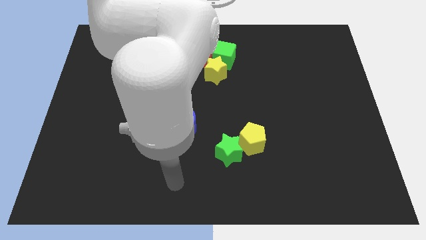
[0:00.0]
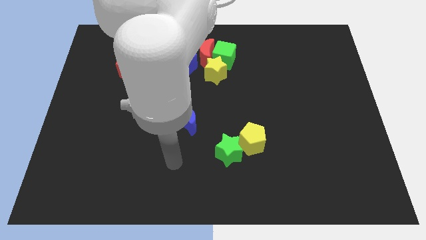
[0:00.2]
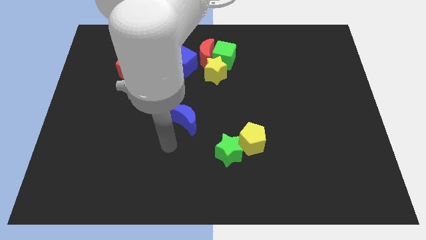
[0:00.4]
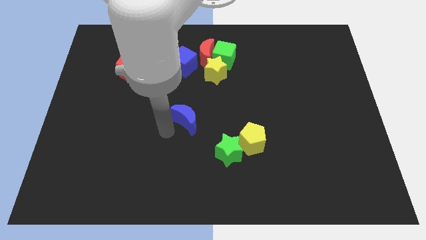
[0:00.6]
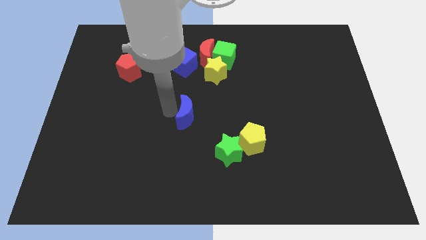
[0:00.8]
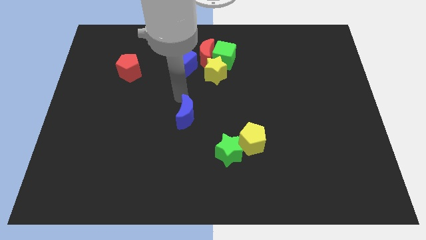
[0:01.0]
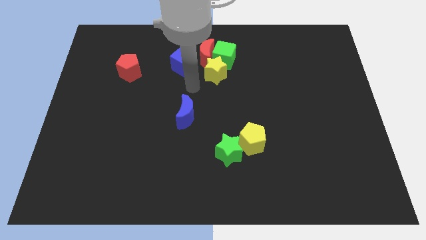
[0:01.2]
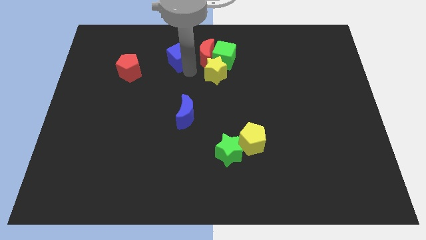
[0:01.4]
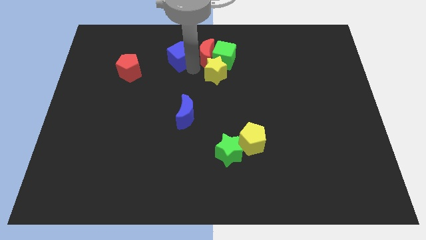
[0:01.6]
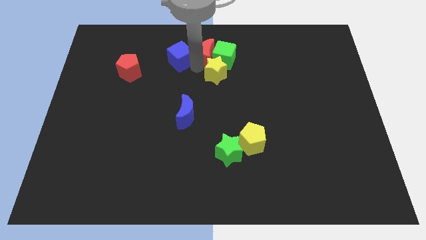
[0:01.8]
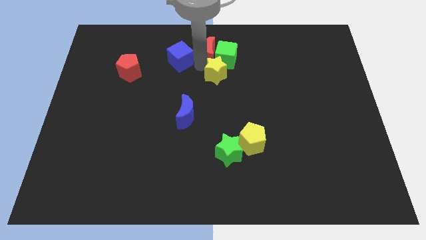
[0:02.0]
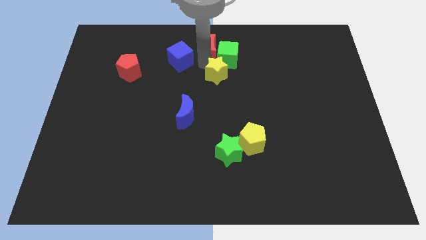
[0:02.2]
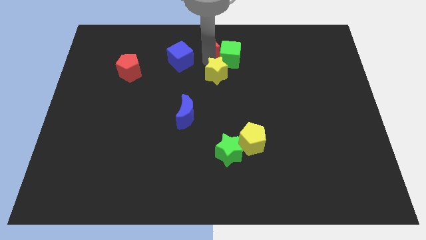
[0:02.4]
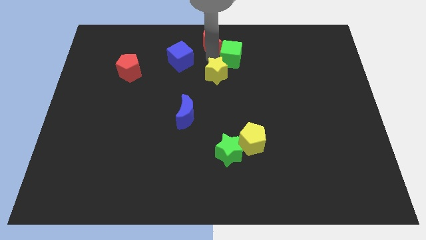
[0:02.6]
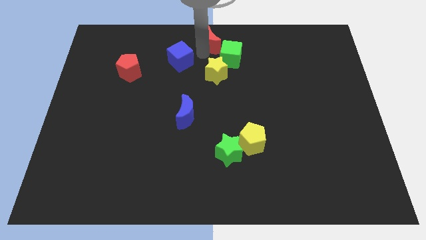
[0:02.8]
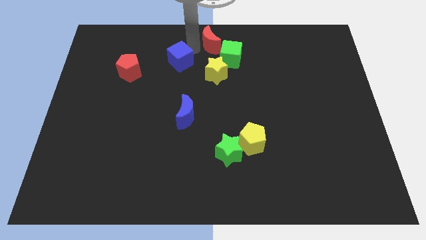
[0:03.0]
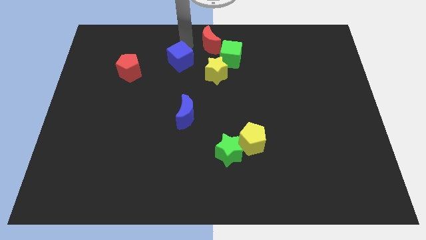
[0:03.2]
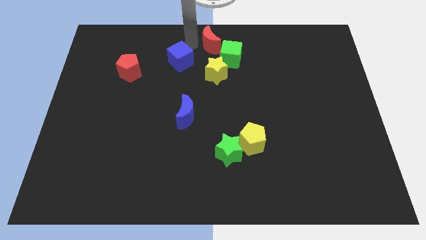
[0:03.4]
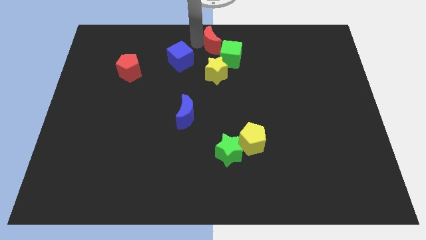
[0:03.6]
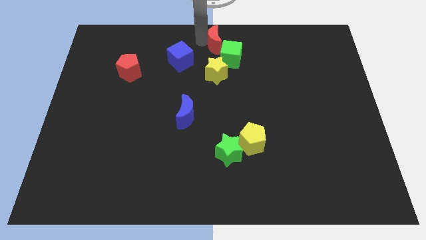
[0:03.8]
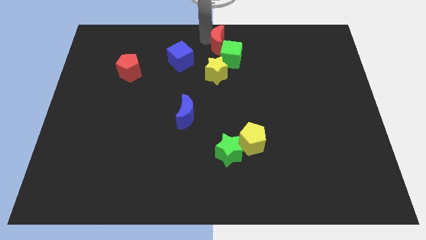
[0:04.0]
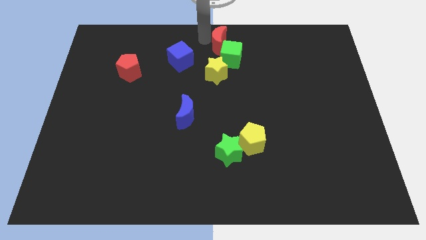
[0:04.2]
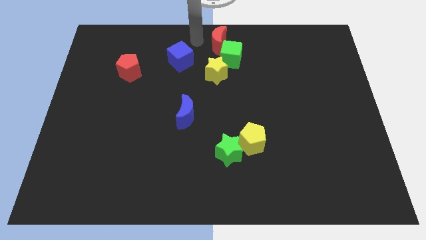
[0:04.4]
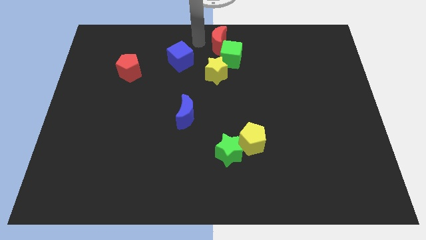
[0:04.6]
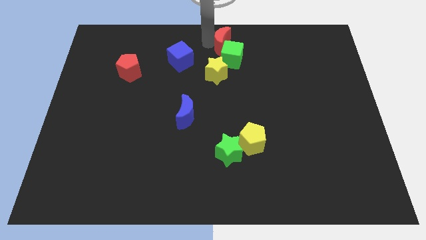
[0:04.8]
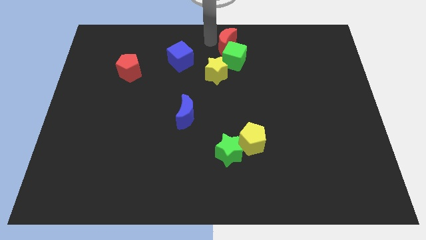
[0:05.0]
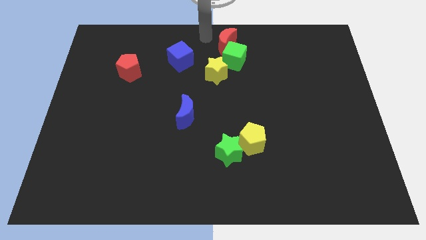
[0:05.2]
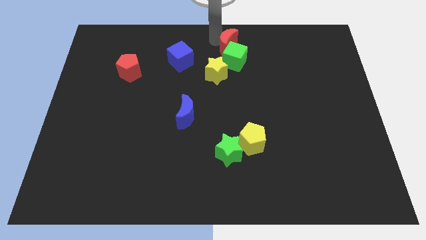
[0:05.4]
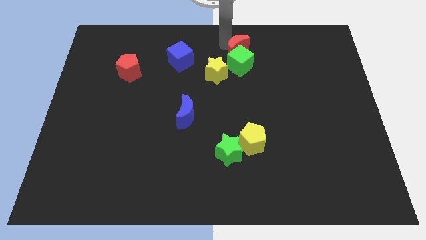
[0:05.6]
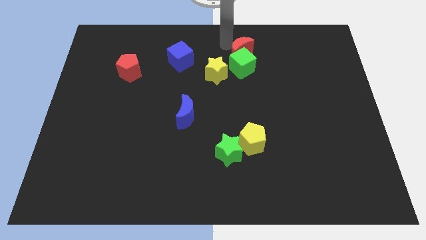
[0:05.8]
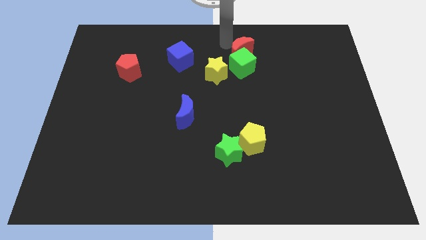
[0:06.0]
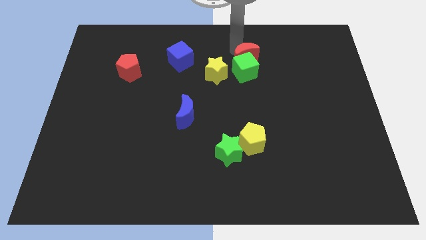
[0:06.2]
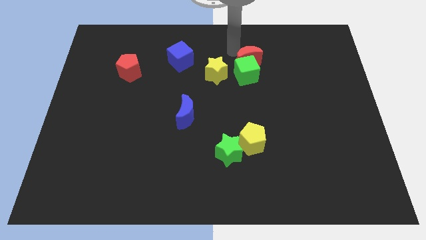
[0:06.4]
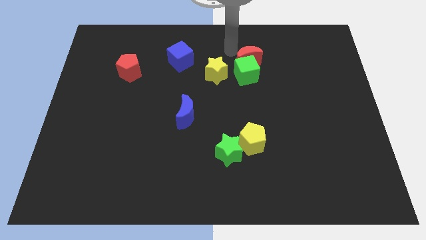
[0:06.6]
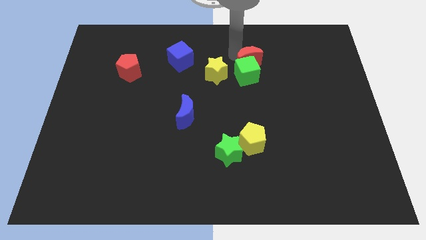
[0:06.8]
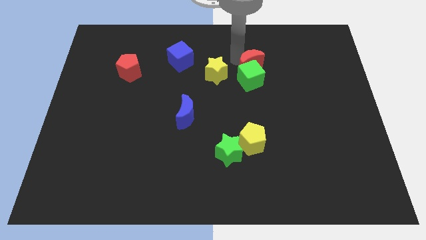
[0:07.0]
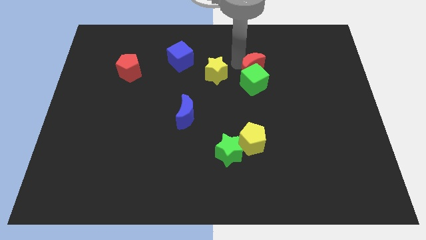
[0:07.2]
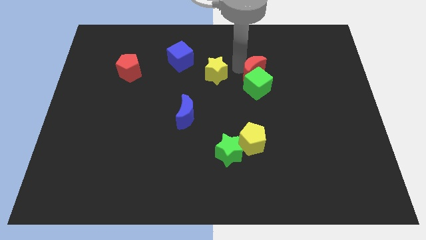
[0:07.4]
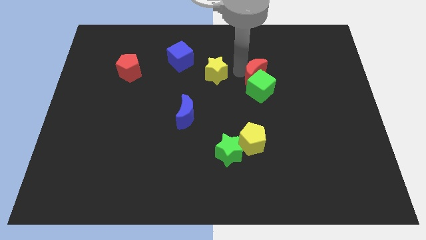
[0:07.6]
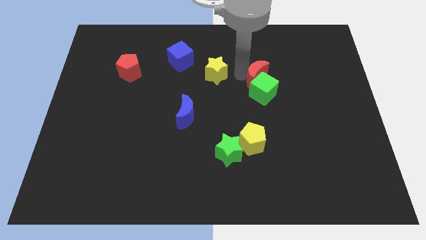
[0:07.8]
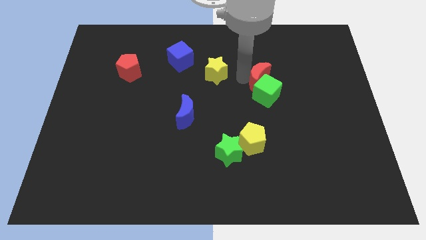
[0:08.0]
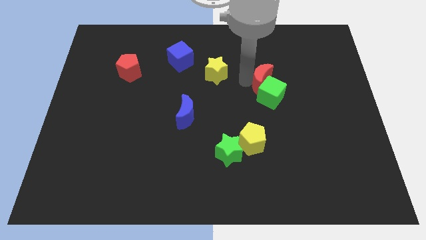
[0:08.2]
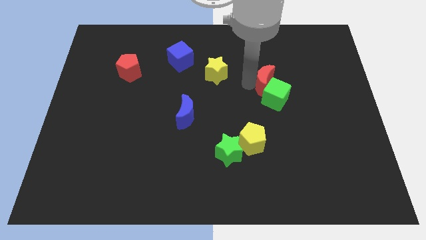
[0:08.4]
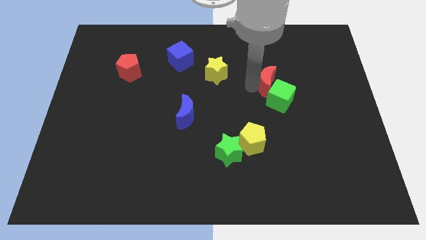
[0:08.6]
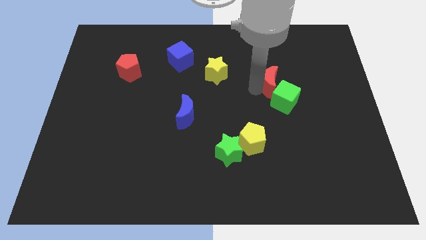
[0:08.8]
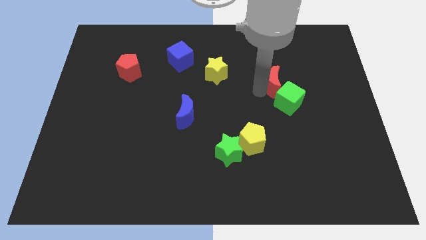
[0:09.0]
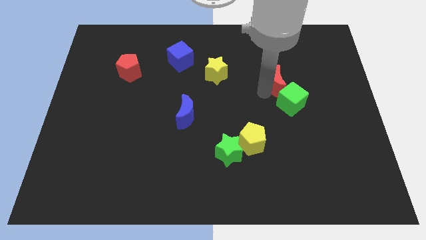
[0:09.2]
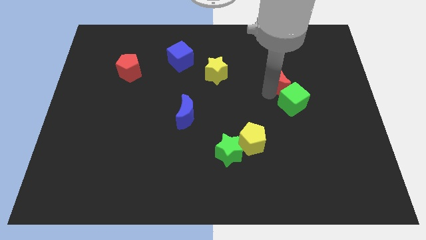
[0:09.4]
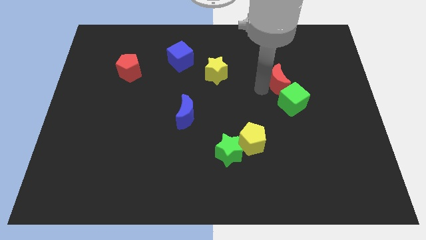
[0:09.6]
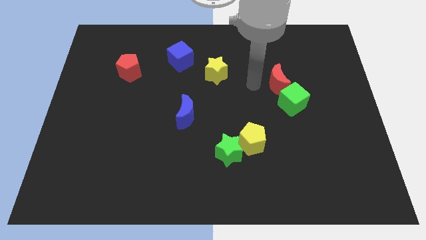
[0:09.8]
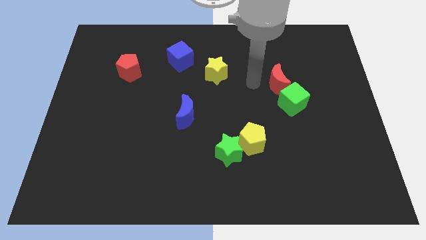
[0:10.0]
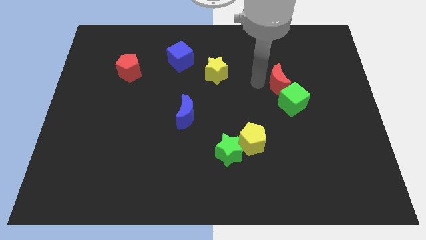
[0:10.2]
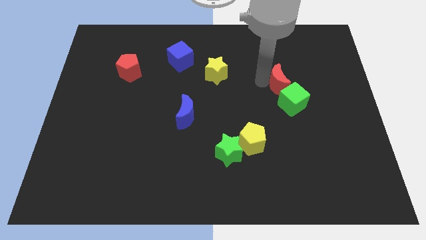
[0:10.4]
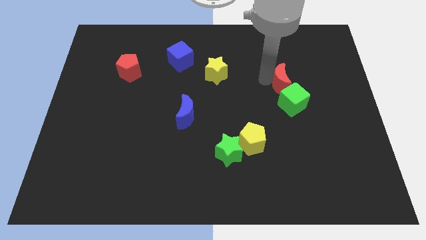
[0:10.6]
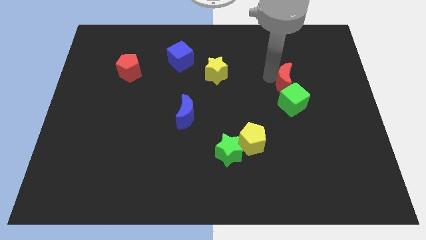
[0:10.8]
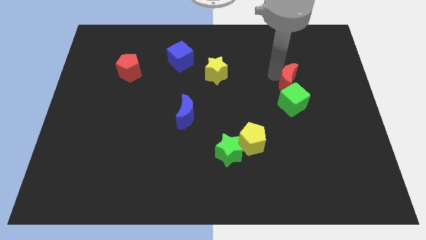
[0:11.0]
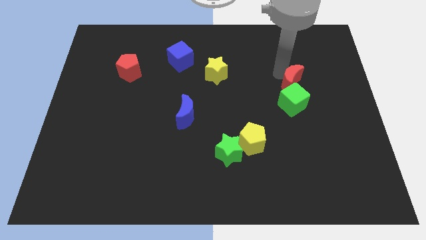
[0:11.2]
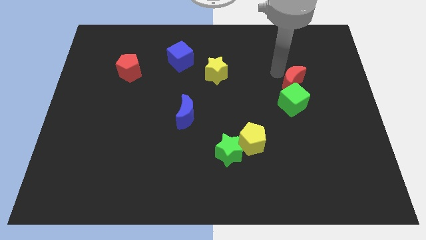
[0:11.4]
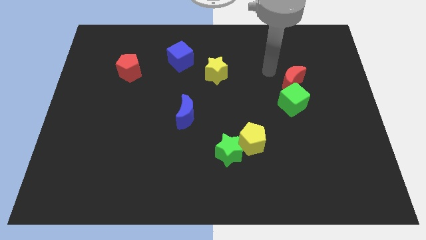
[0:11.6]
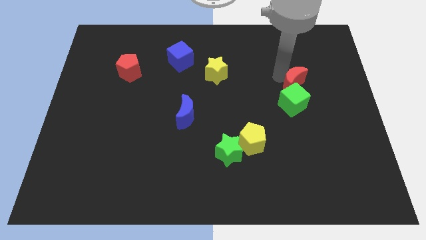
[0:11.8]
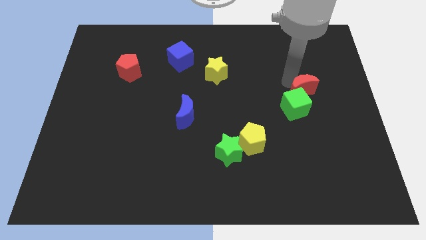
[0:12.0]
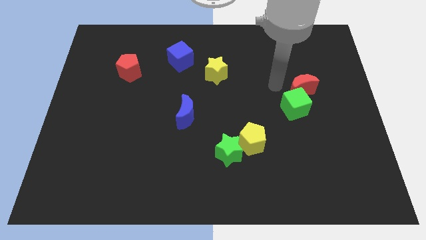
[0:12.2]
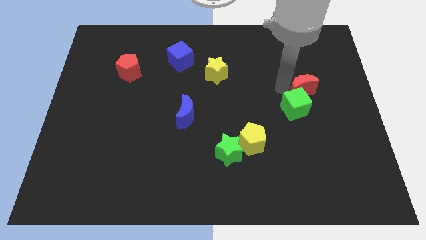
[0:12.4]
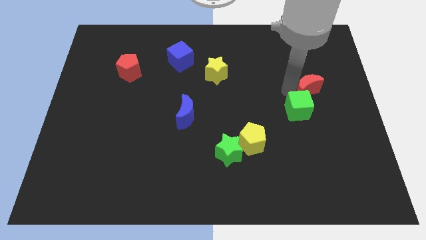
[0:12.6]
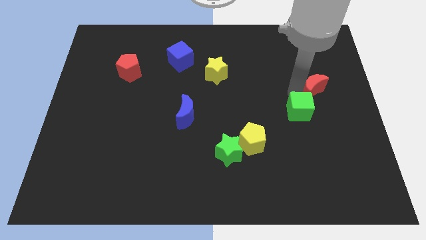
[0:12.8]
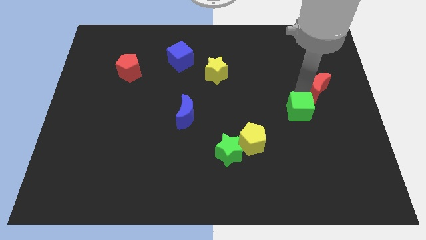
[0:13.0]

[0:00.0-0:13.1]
put the red moon to the center right

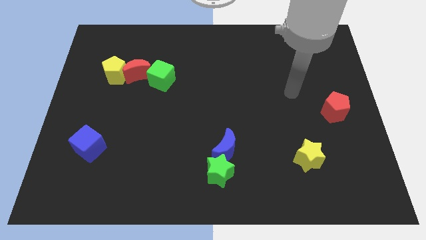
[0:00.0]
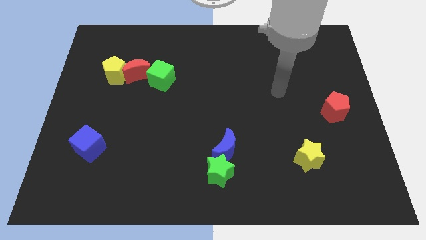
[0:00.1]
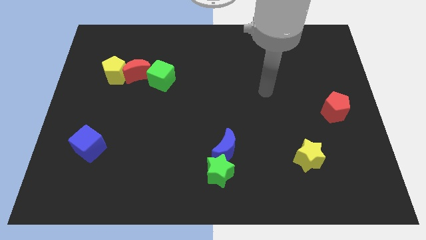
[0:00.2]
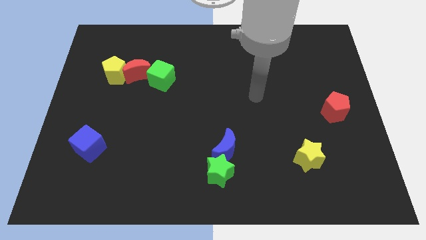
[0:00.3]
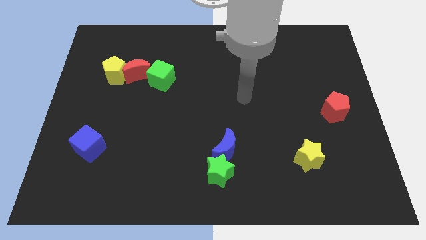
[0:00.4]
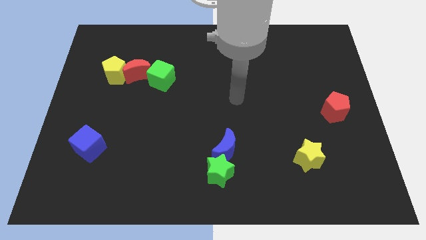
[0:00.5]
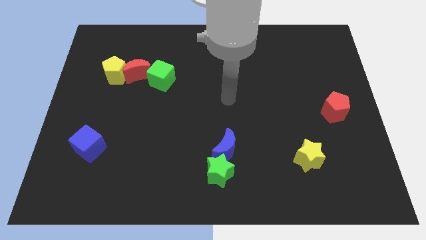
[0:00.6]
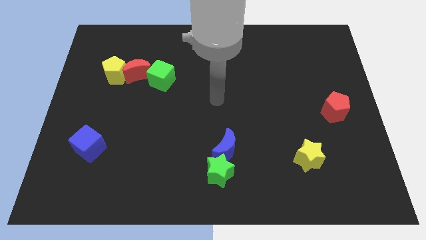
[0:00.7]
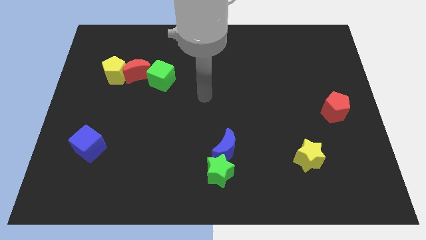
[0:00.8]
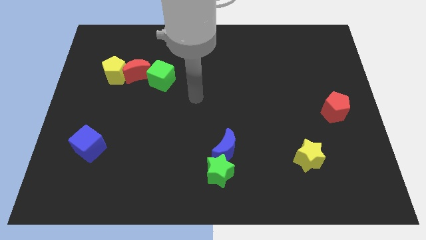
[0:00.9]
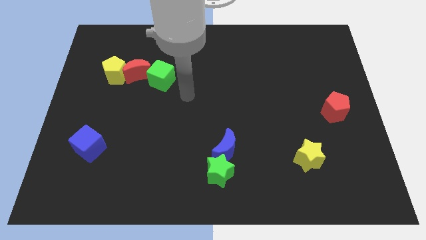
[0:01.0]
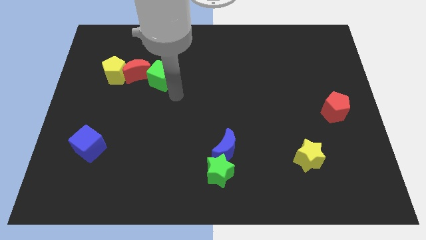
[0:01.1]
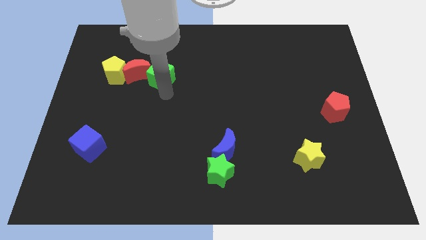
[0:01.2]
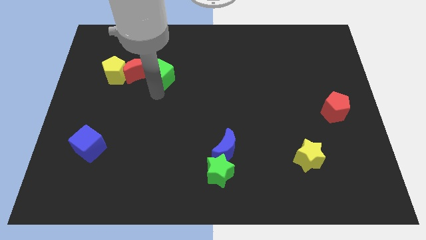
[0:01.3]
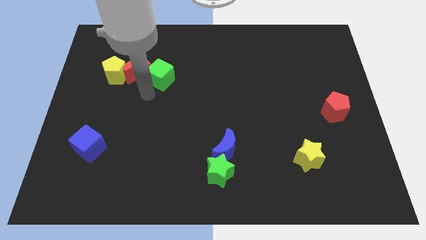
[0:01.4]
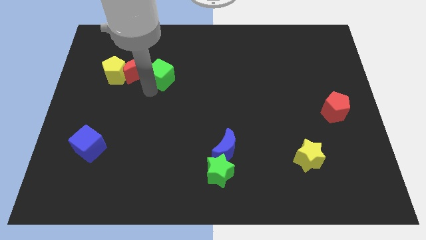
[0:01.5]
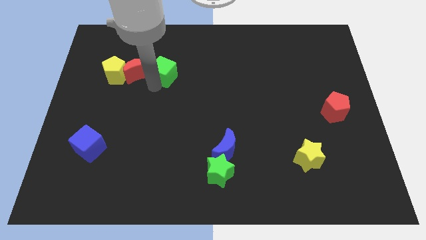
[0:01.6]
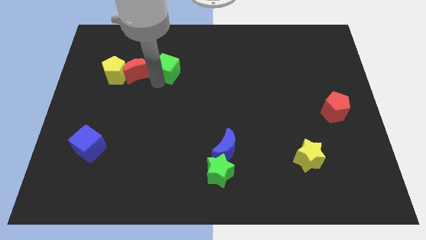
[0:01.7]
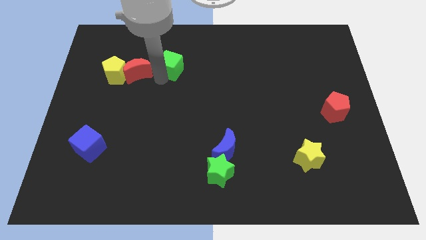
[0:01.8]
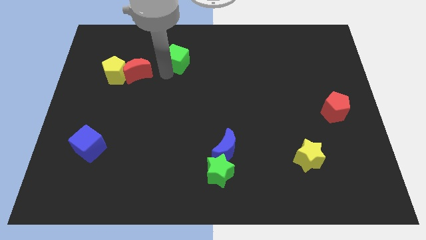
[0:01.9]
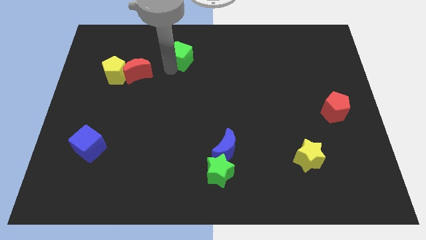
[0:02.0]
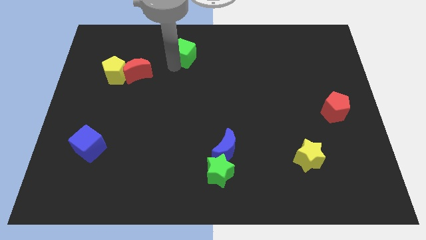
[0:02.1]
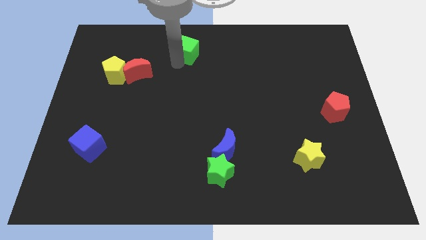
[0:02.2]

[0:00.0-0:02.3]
slide the green cube to the top
